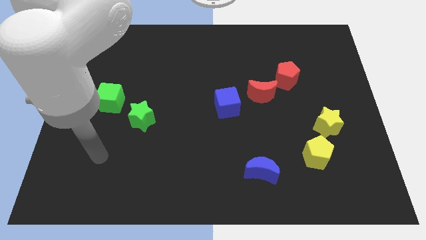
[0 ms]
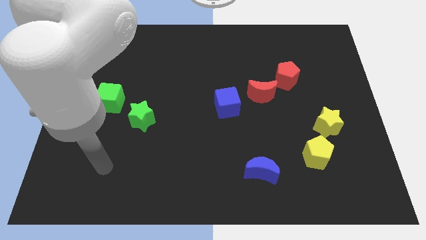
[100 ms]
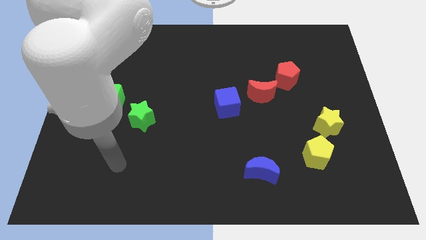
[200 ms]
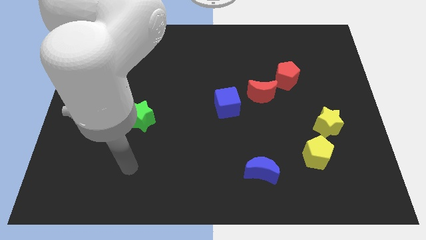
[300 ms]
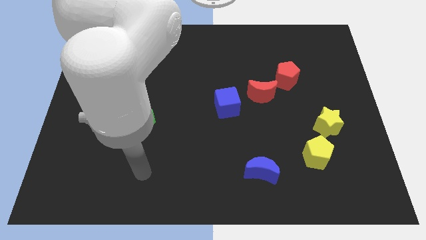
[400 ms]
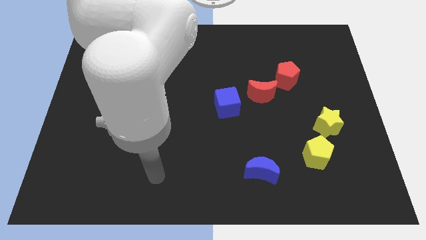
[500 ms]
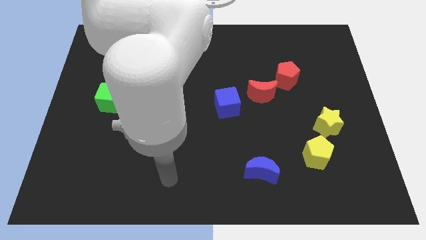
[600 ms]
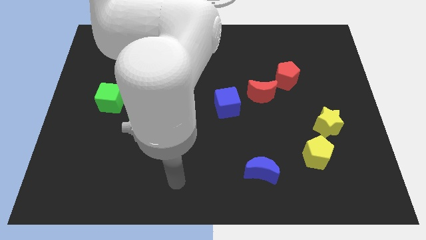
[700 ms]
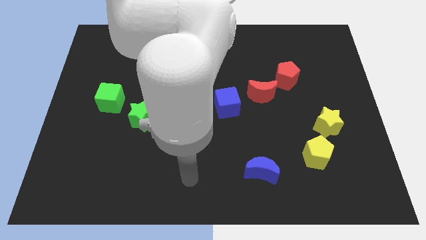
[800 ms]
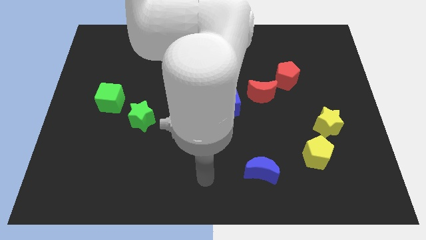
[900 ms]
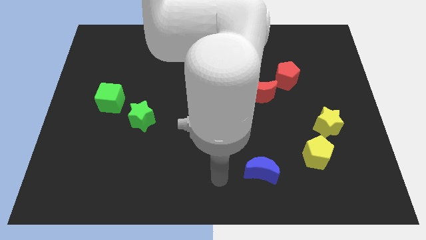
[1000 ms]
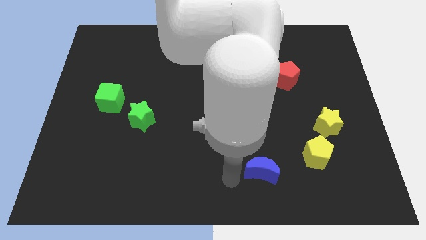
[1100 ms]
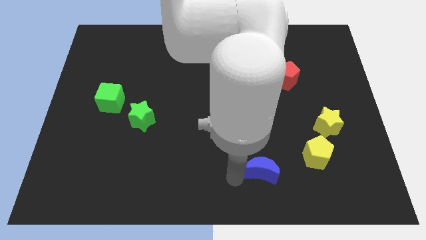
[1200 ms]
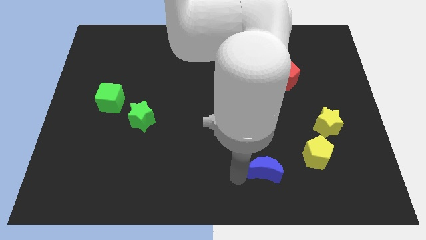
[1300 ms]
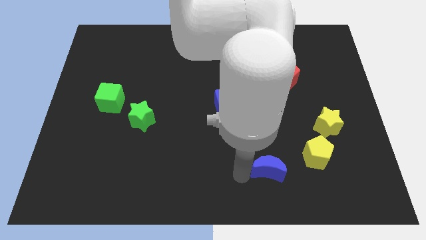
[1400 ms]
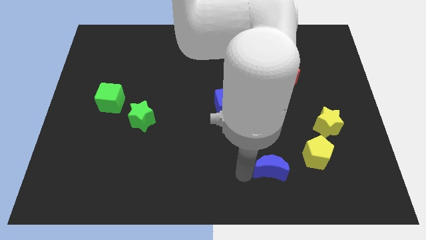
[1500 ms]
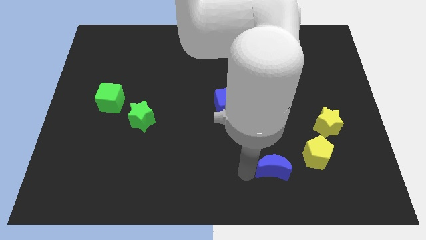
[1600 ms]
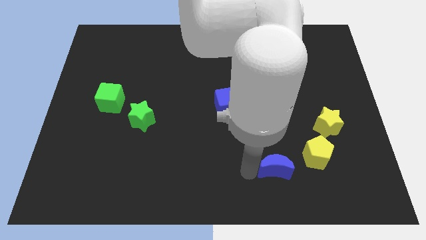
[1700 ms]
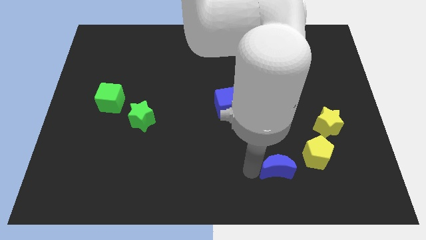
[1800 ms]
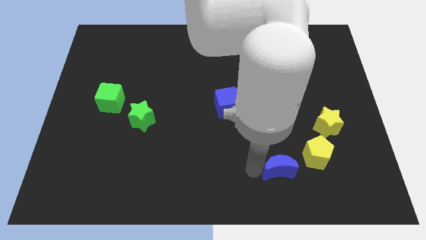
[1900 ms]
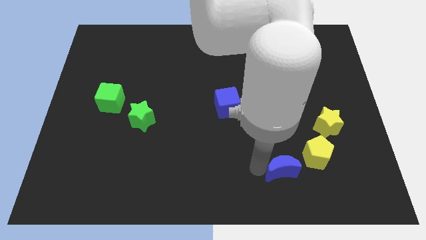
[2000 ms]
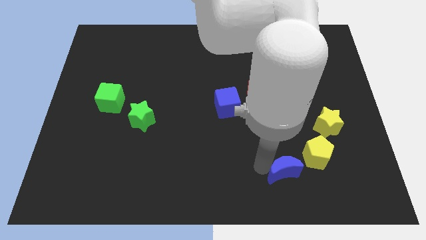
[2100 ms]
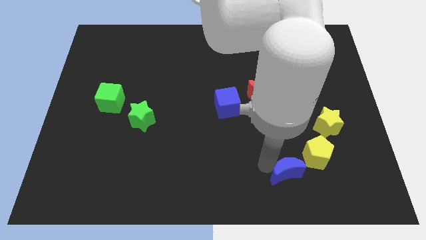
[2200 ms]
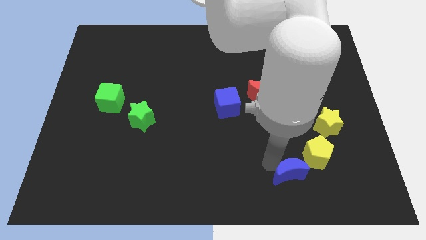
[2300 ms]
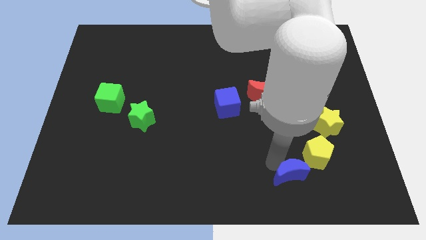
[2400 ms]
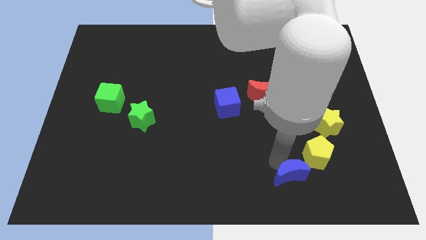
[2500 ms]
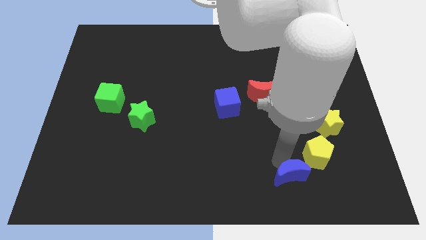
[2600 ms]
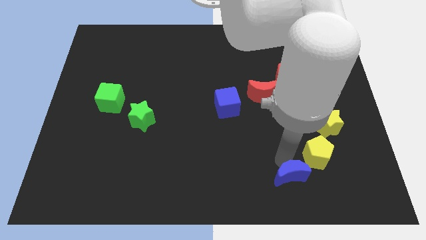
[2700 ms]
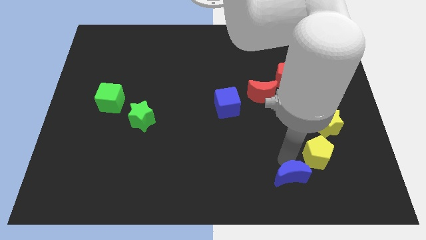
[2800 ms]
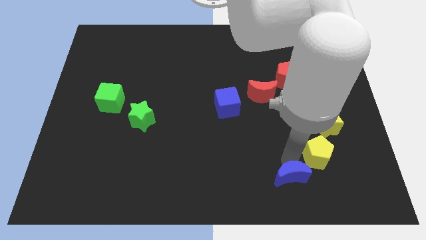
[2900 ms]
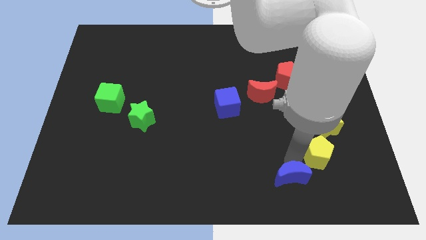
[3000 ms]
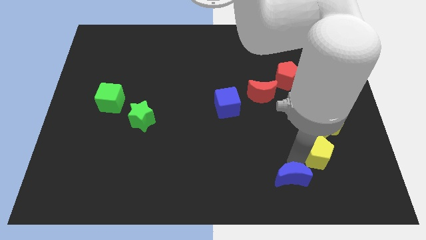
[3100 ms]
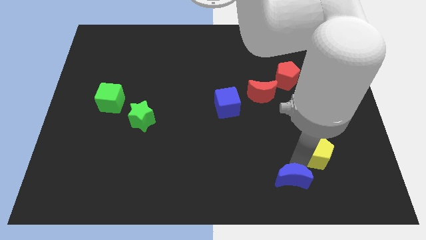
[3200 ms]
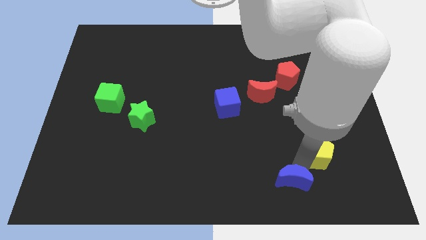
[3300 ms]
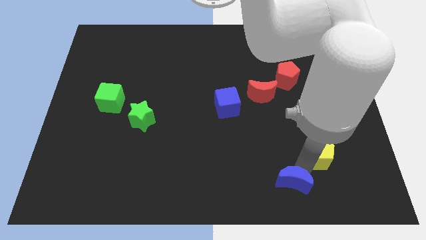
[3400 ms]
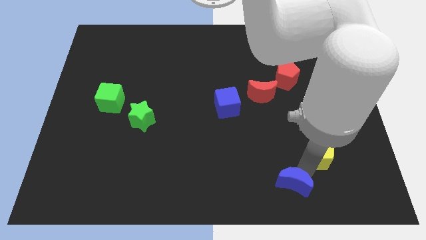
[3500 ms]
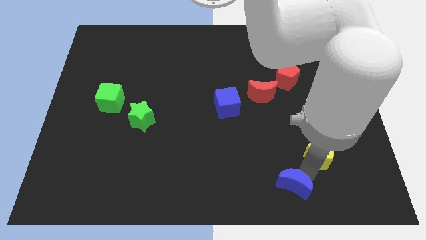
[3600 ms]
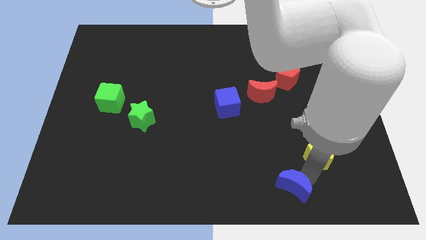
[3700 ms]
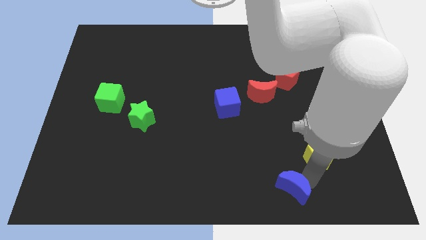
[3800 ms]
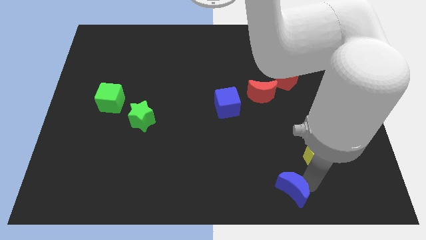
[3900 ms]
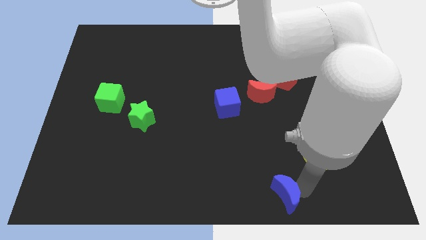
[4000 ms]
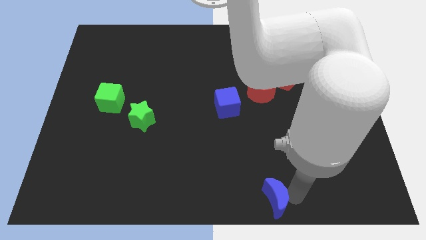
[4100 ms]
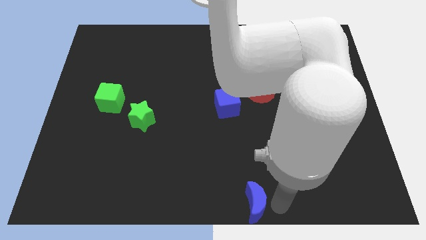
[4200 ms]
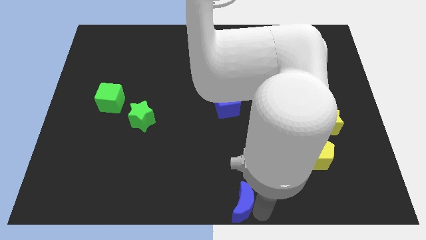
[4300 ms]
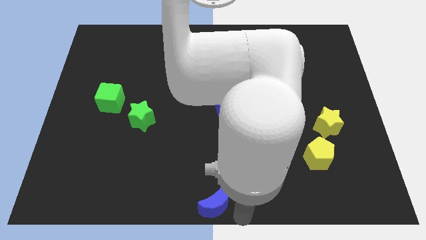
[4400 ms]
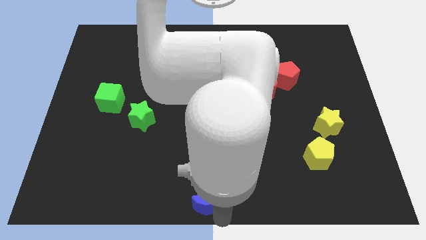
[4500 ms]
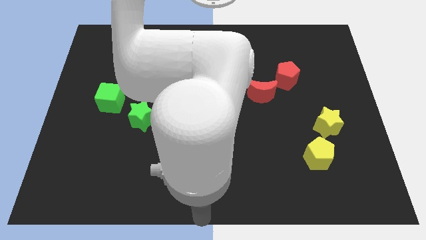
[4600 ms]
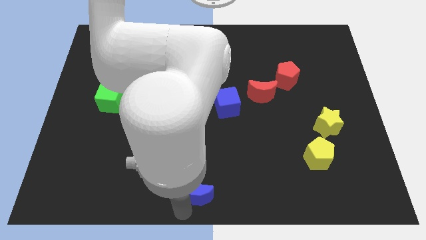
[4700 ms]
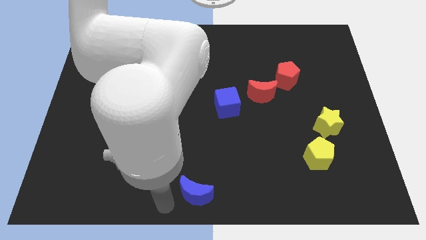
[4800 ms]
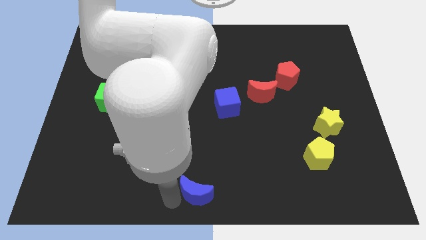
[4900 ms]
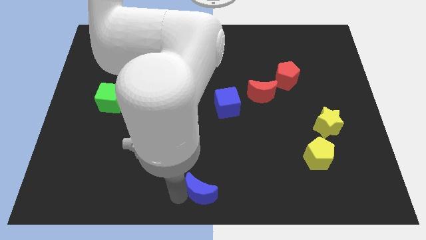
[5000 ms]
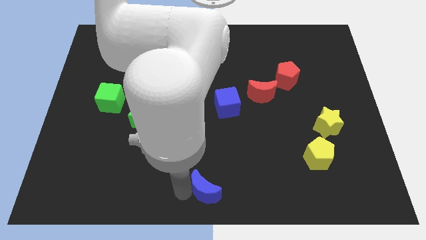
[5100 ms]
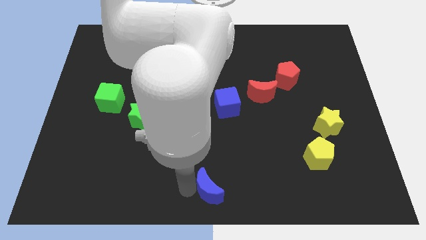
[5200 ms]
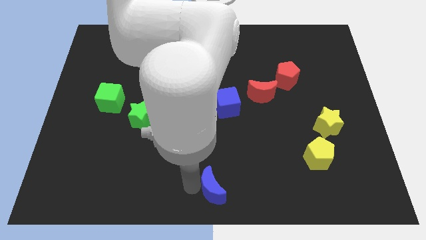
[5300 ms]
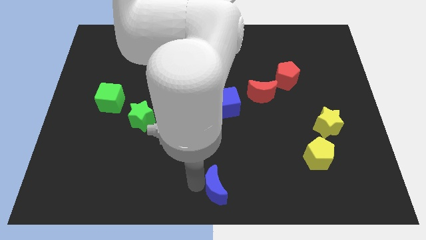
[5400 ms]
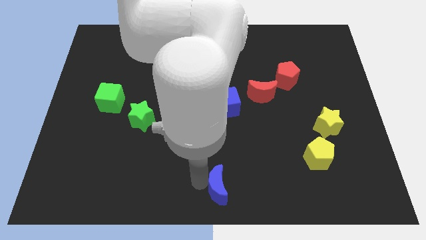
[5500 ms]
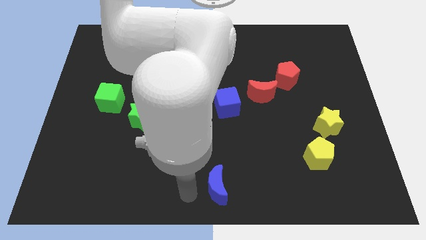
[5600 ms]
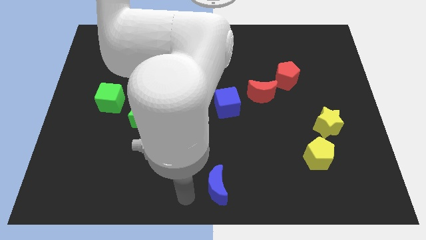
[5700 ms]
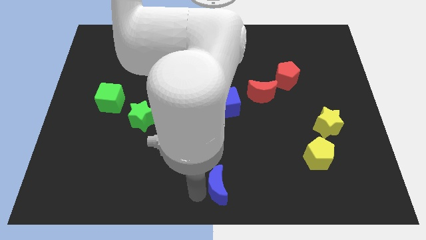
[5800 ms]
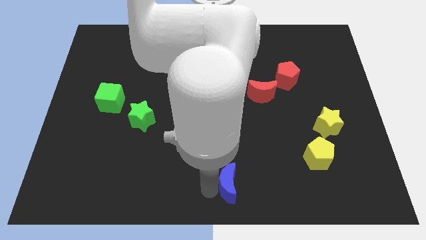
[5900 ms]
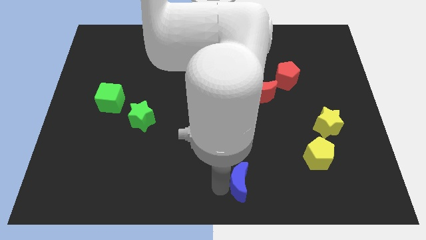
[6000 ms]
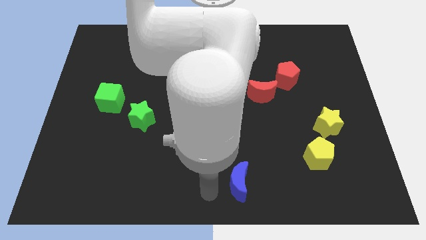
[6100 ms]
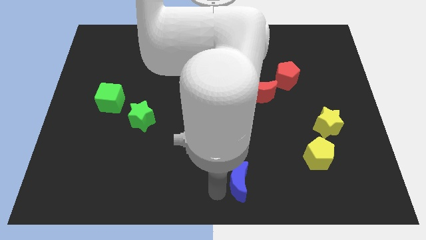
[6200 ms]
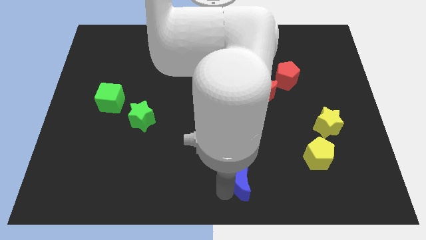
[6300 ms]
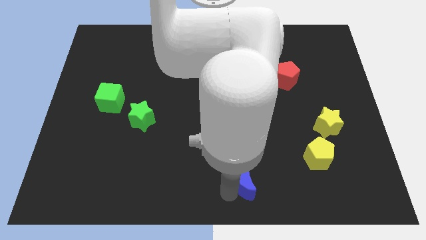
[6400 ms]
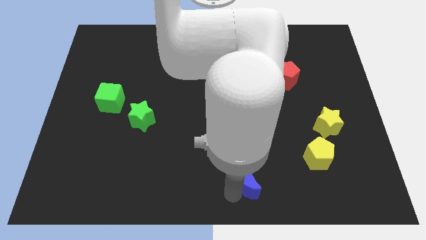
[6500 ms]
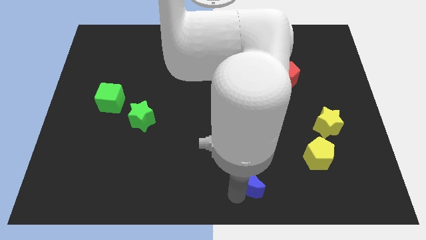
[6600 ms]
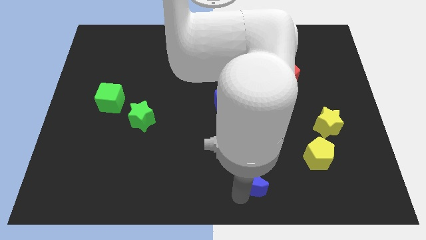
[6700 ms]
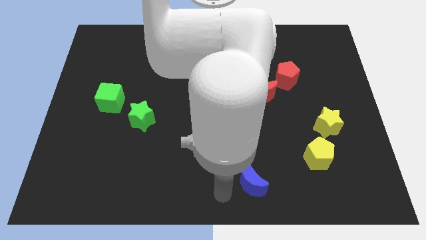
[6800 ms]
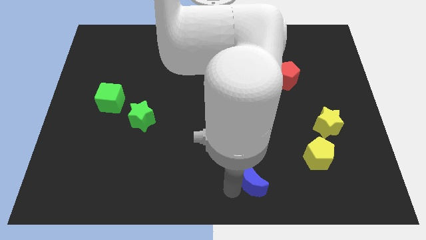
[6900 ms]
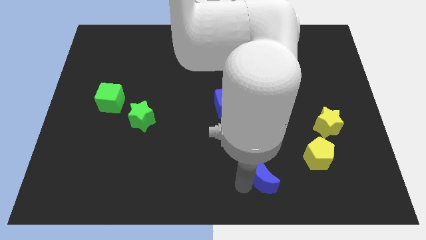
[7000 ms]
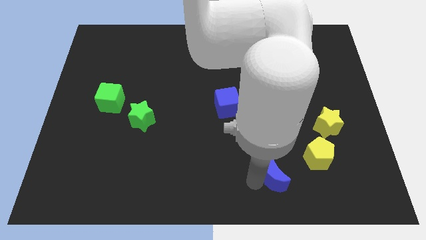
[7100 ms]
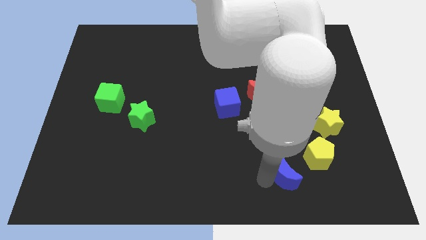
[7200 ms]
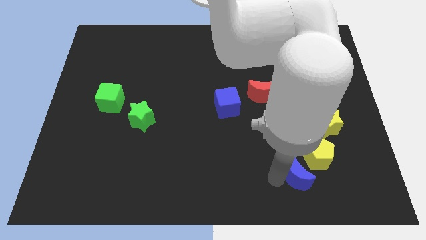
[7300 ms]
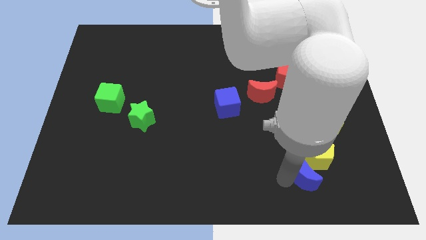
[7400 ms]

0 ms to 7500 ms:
put the blue moon close to the yellow pentagon
